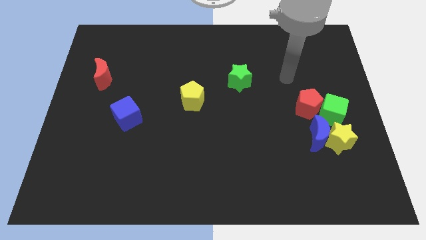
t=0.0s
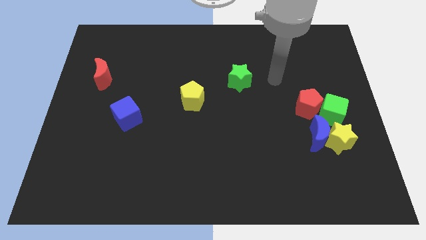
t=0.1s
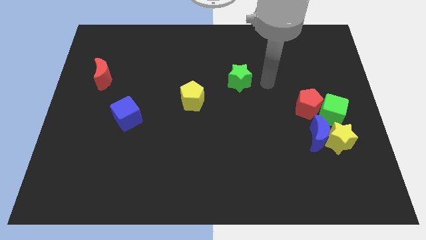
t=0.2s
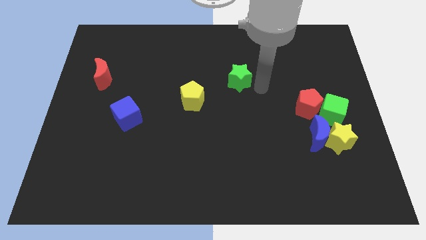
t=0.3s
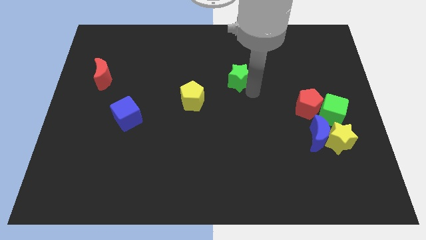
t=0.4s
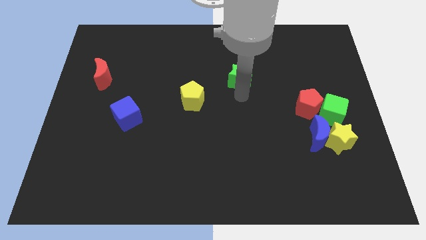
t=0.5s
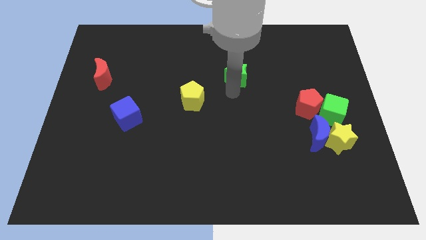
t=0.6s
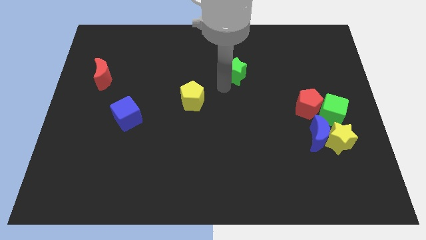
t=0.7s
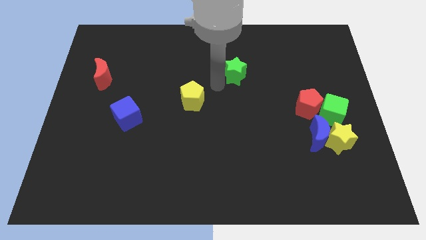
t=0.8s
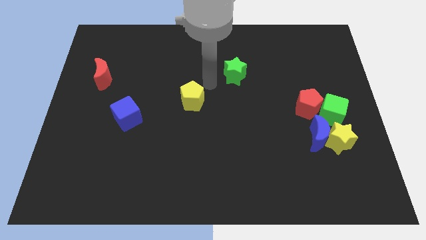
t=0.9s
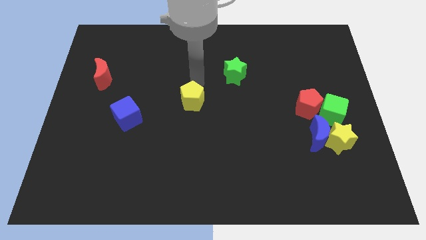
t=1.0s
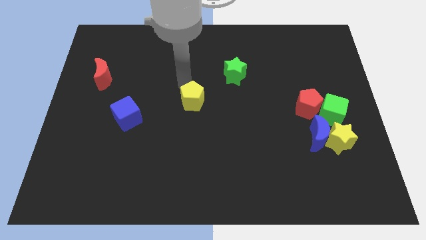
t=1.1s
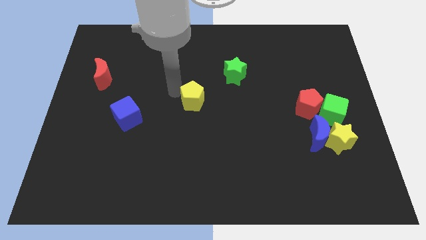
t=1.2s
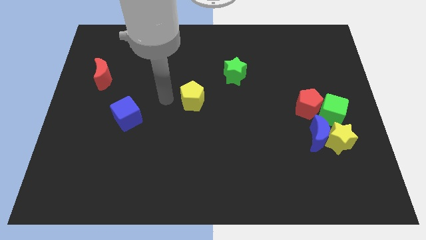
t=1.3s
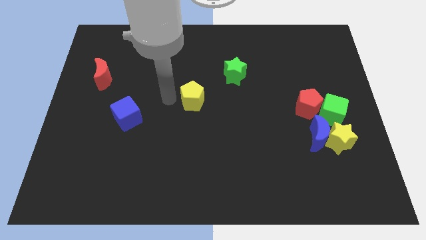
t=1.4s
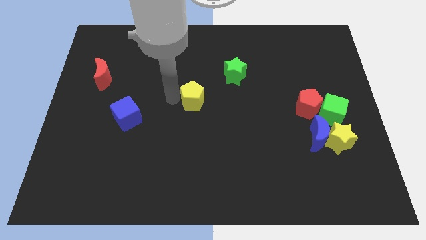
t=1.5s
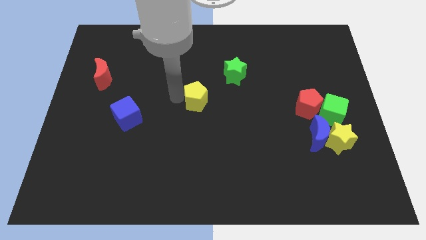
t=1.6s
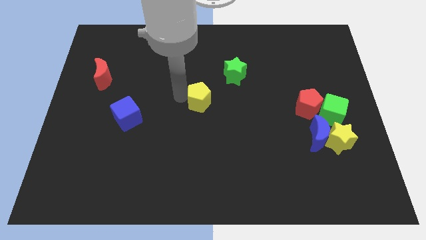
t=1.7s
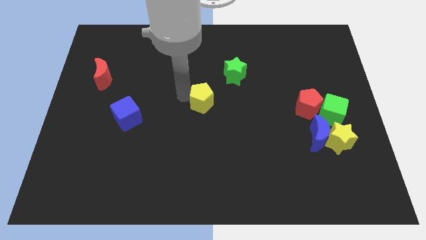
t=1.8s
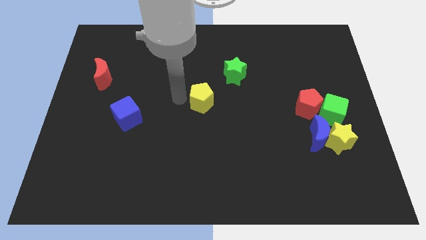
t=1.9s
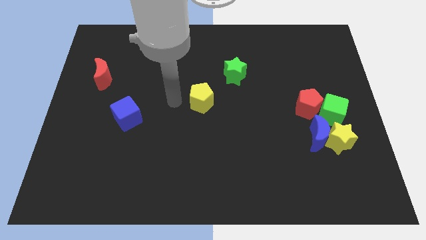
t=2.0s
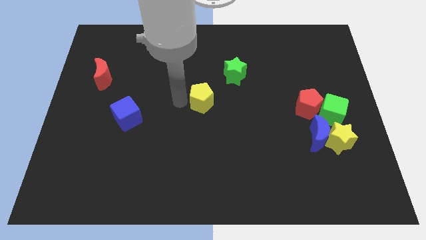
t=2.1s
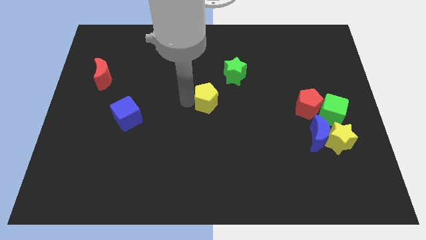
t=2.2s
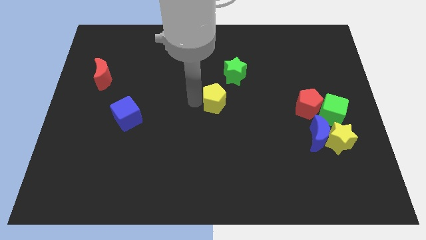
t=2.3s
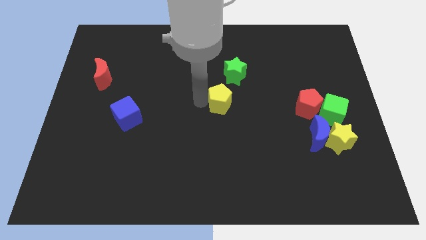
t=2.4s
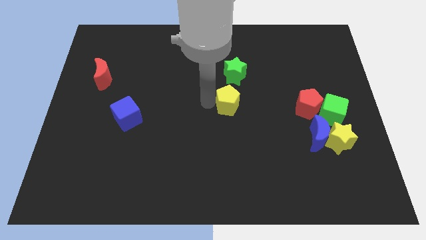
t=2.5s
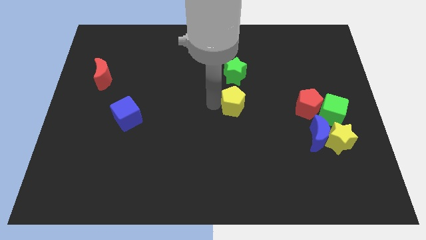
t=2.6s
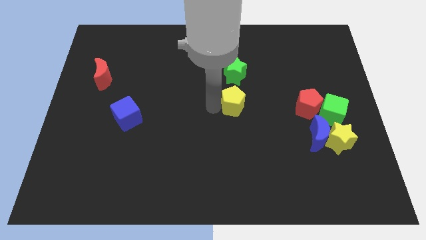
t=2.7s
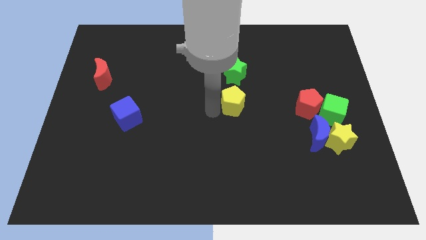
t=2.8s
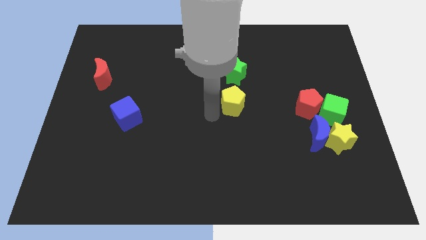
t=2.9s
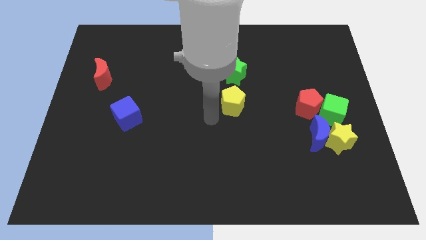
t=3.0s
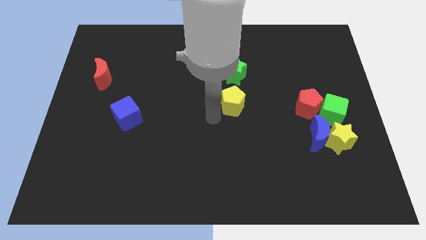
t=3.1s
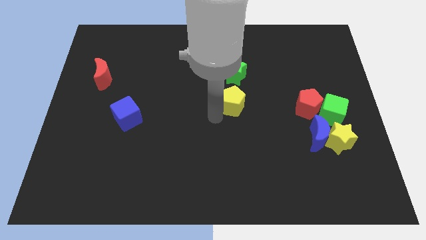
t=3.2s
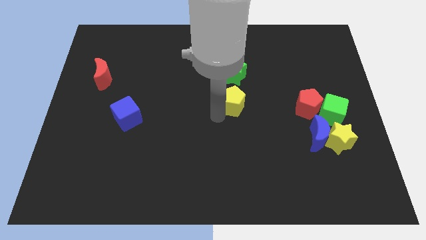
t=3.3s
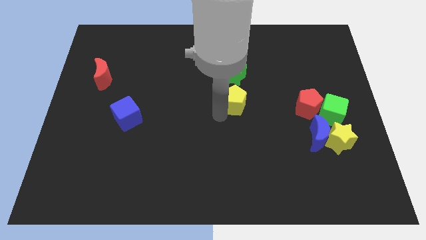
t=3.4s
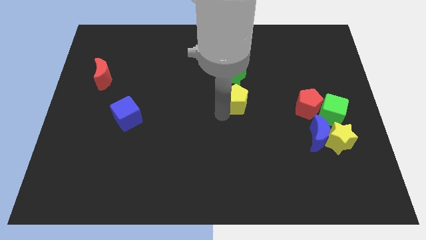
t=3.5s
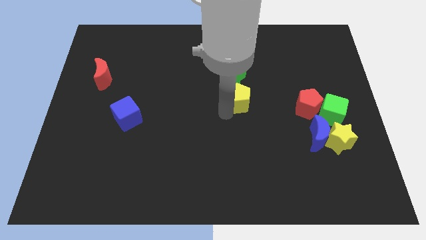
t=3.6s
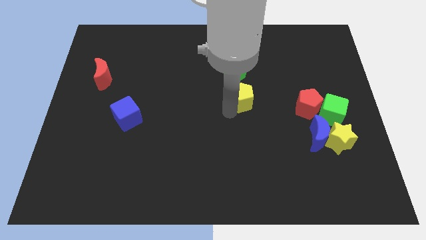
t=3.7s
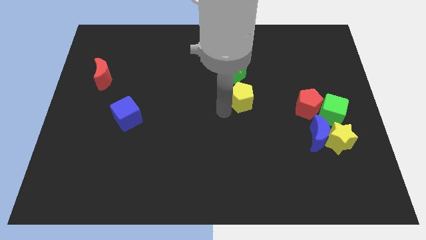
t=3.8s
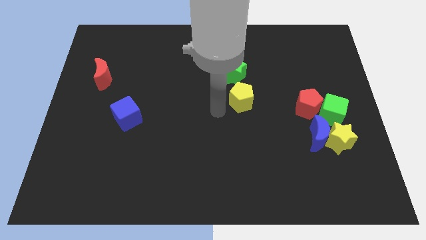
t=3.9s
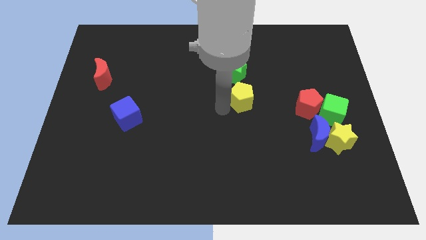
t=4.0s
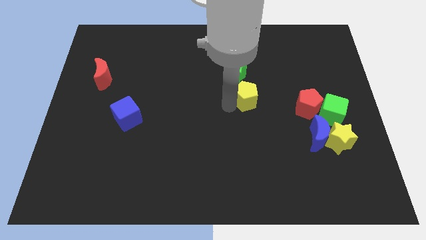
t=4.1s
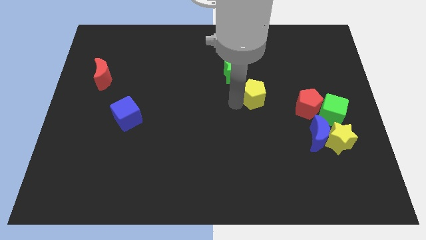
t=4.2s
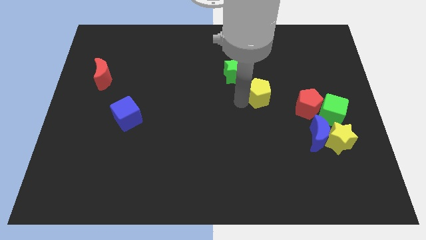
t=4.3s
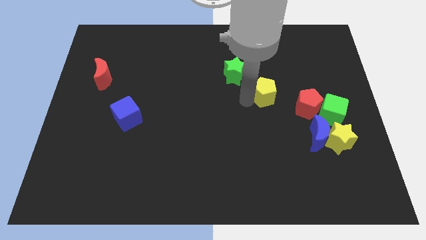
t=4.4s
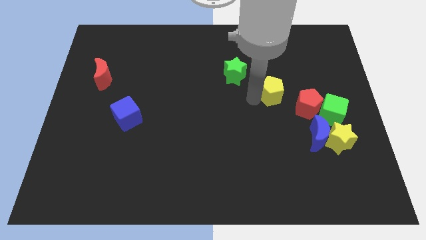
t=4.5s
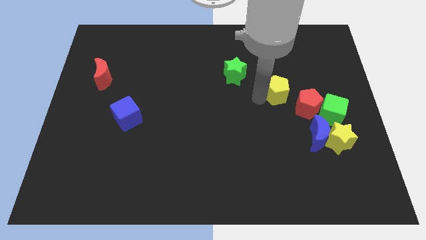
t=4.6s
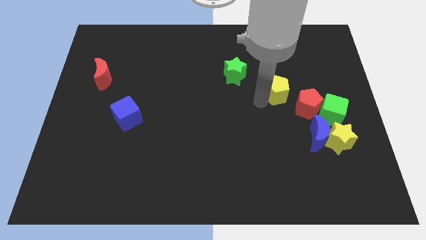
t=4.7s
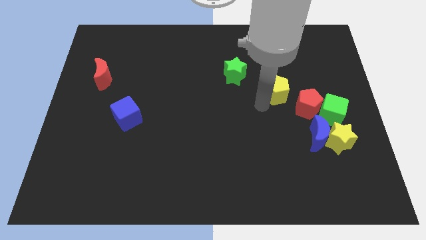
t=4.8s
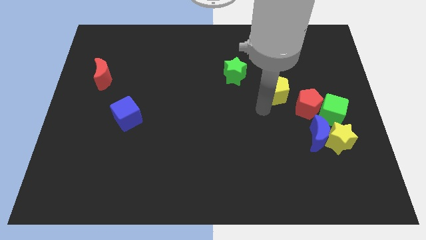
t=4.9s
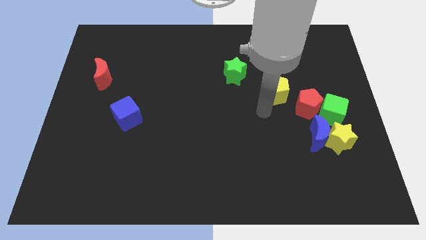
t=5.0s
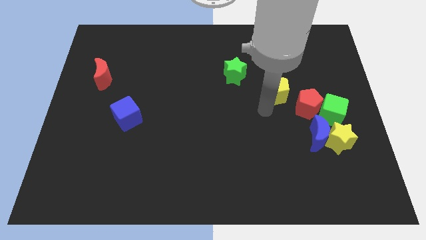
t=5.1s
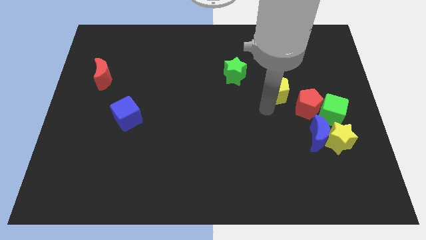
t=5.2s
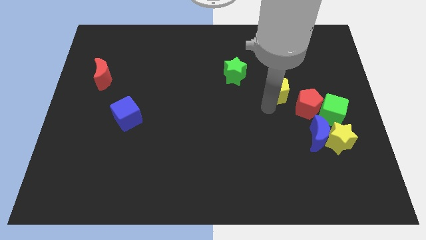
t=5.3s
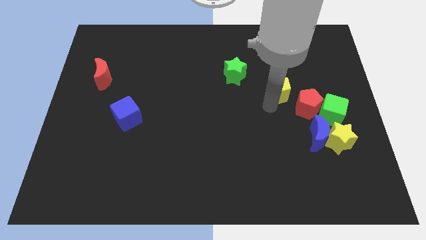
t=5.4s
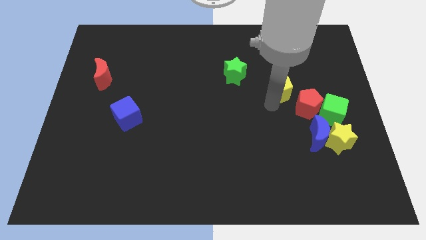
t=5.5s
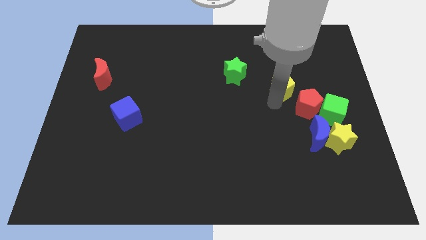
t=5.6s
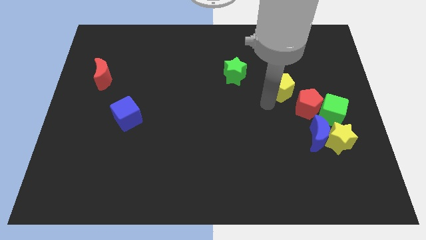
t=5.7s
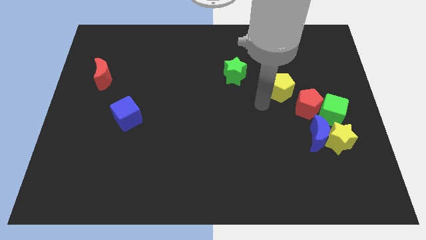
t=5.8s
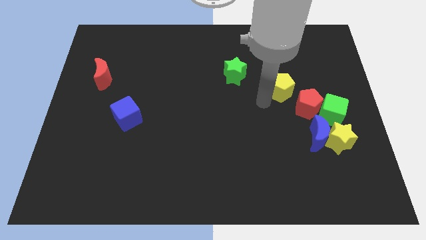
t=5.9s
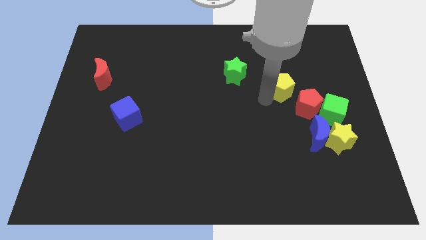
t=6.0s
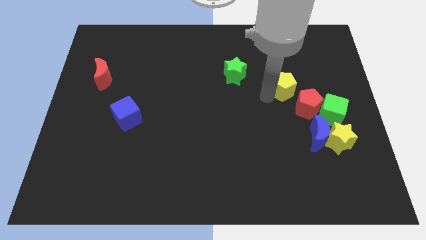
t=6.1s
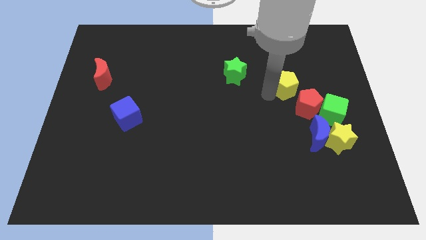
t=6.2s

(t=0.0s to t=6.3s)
slide the yellow pentagon to the top side of the red pentagon

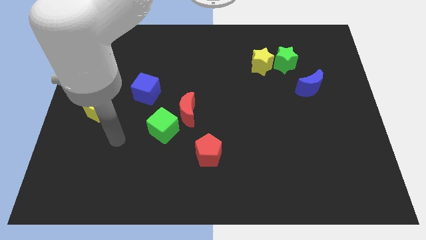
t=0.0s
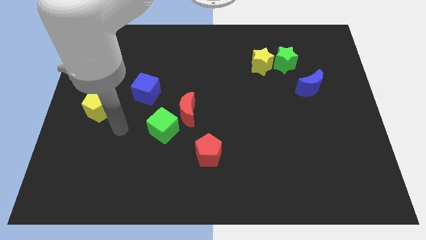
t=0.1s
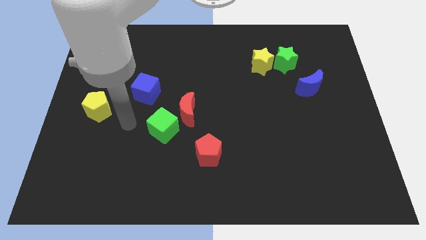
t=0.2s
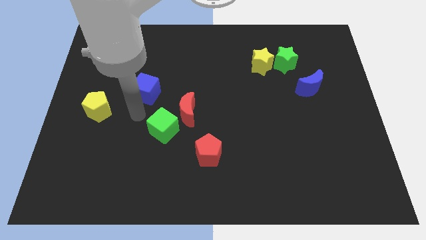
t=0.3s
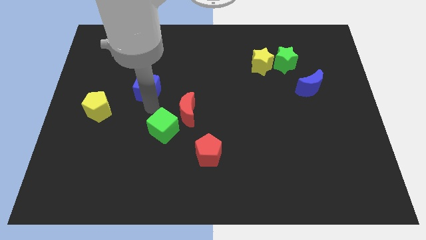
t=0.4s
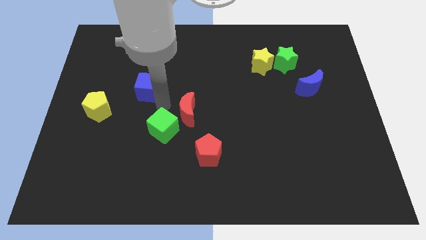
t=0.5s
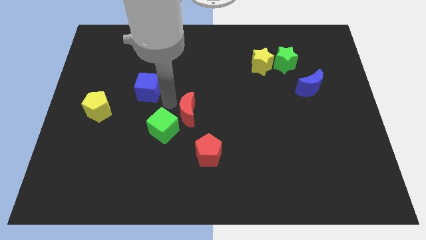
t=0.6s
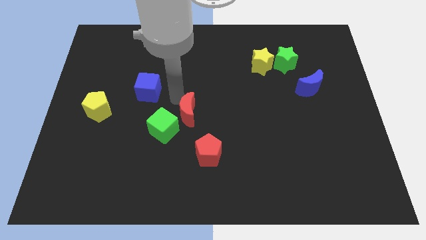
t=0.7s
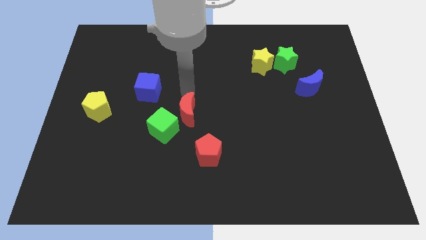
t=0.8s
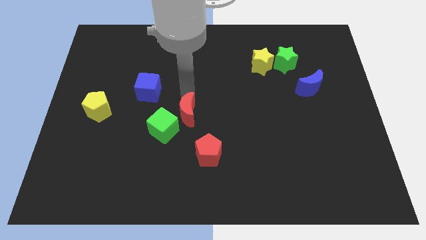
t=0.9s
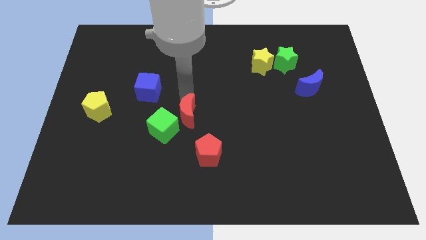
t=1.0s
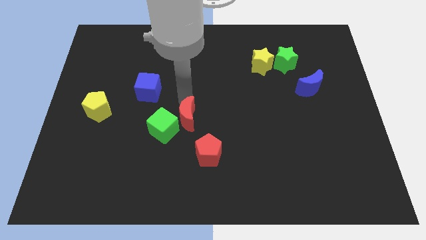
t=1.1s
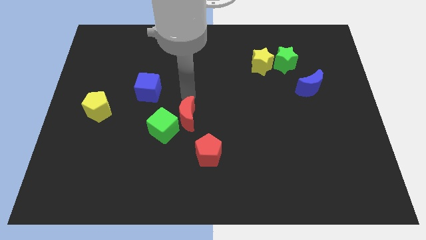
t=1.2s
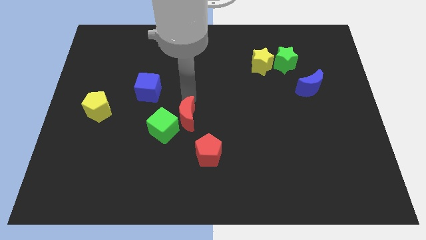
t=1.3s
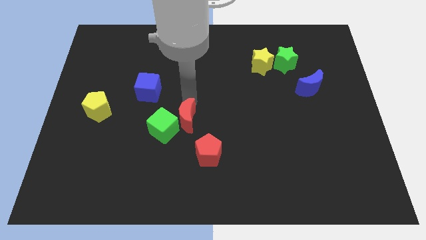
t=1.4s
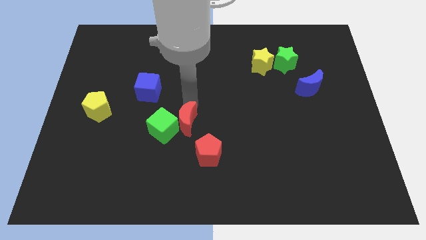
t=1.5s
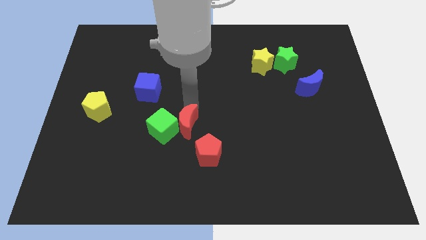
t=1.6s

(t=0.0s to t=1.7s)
move the red moon to the bottom right side of the green cube
